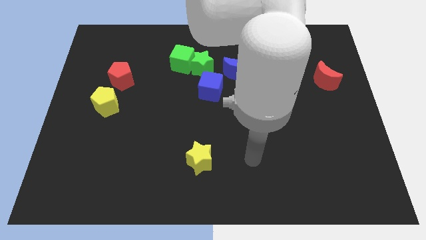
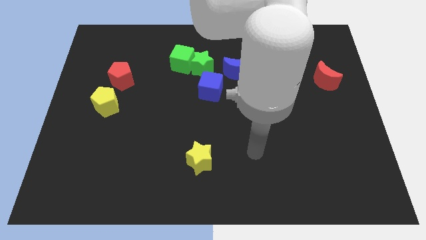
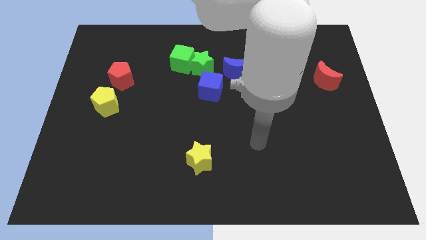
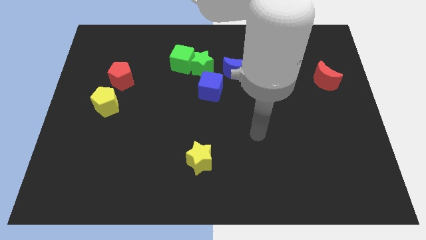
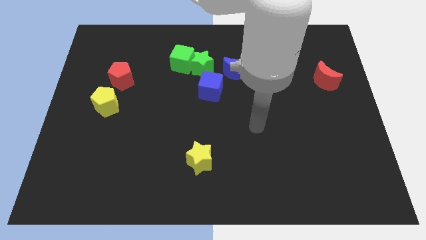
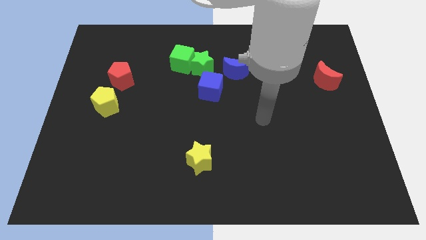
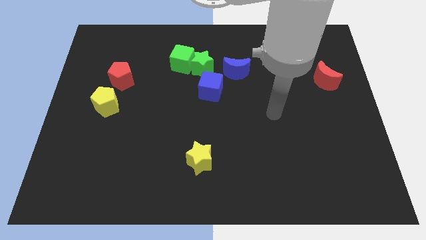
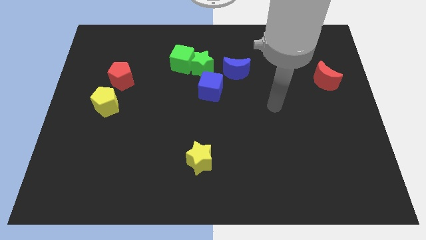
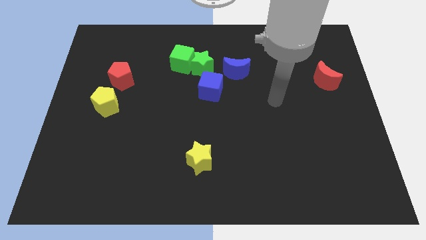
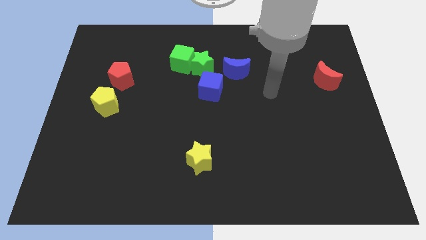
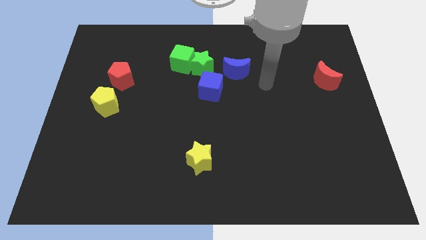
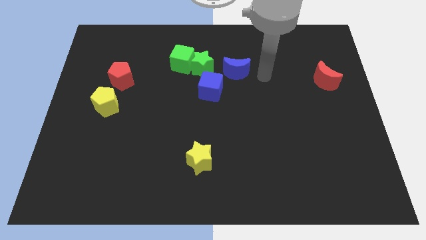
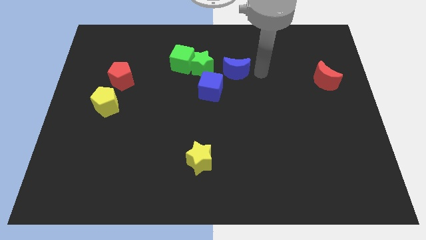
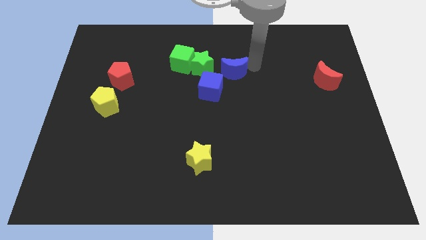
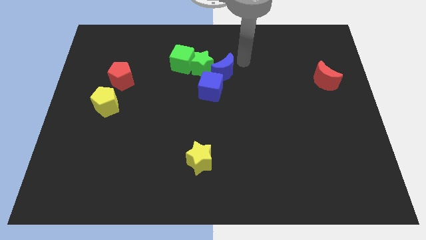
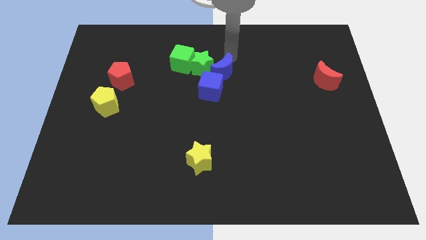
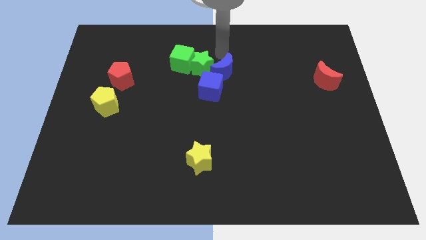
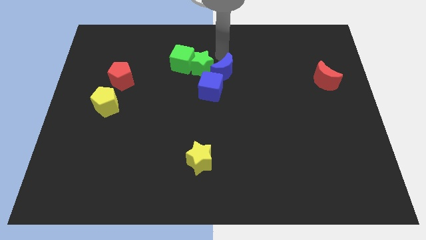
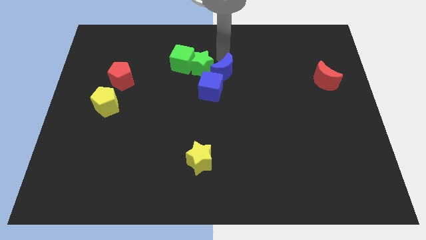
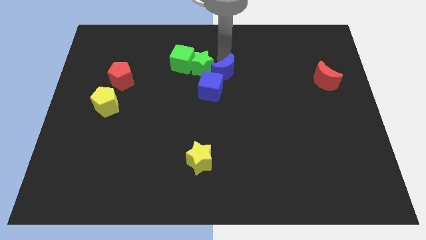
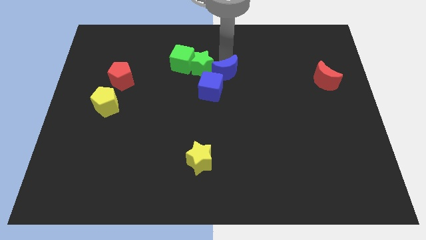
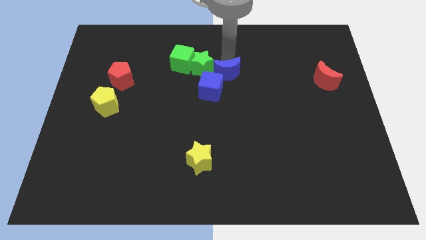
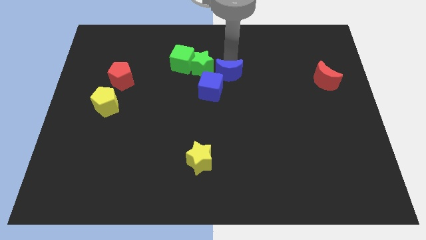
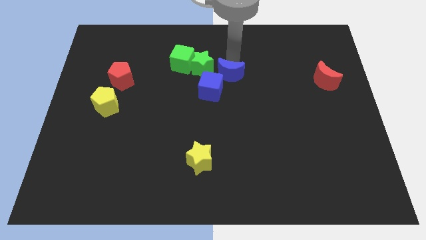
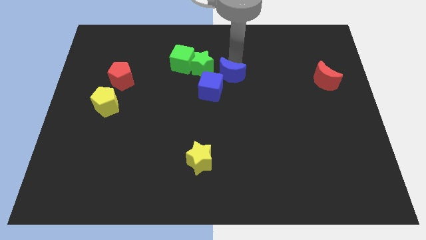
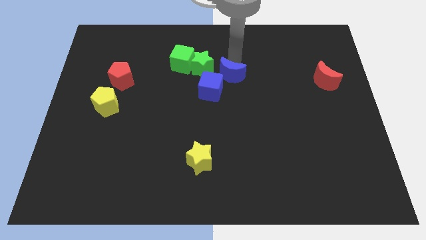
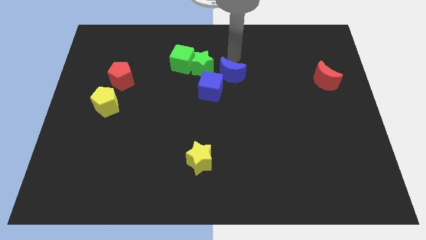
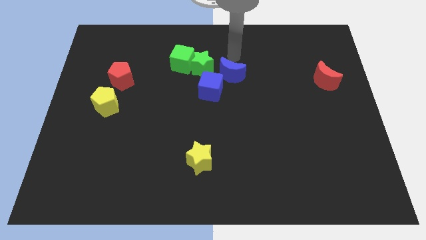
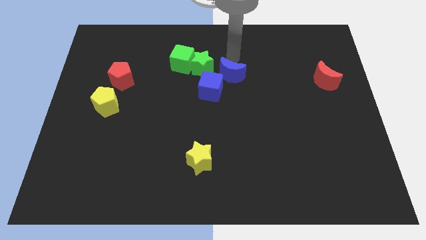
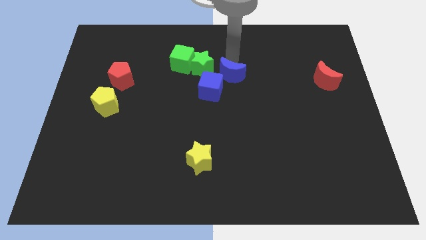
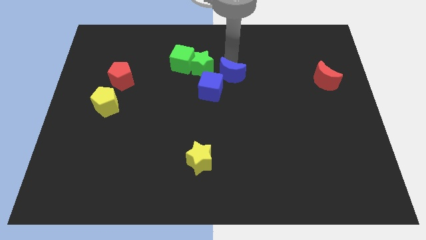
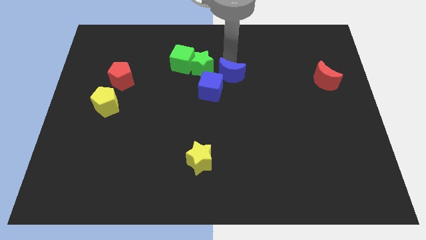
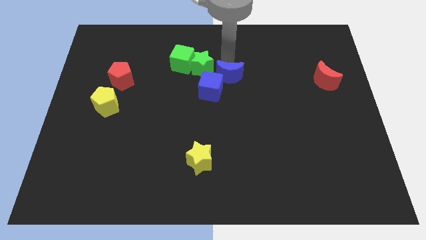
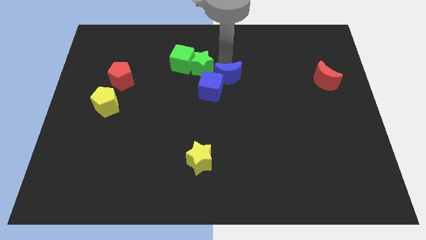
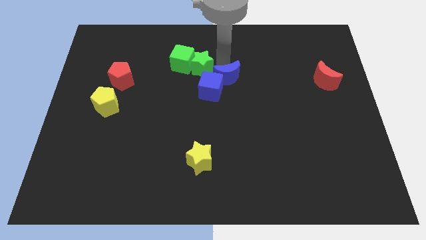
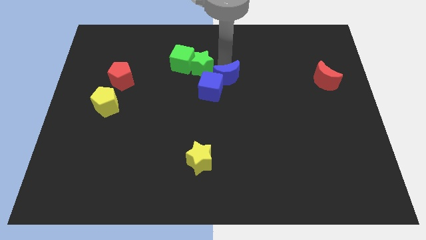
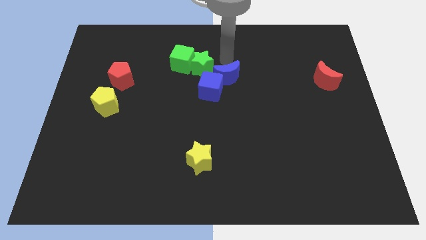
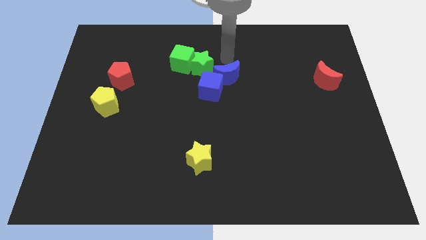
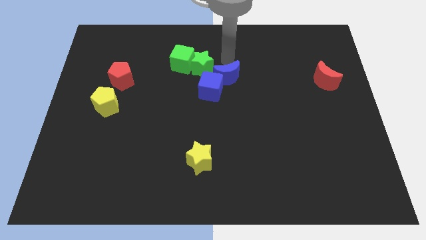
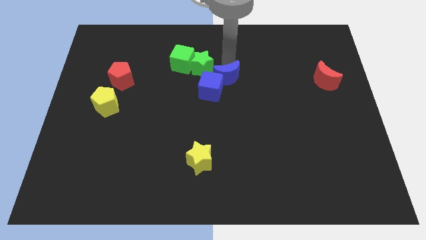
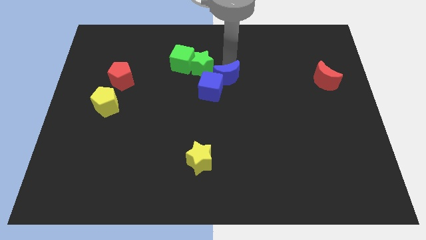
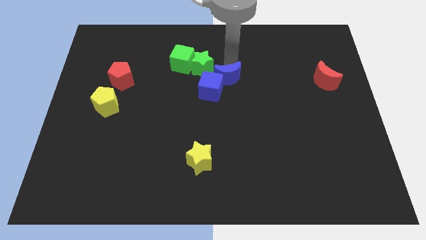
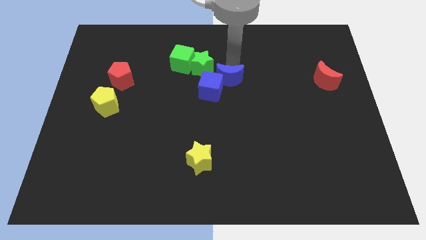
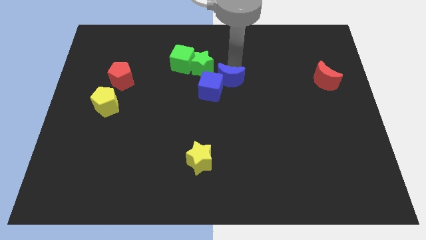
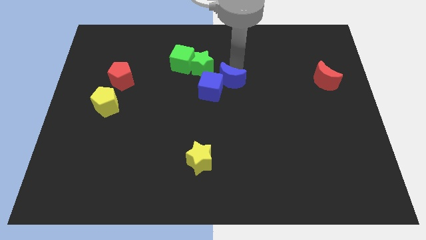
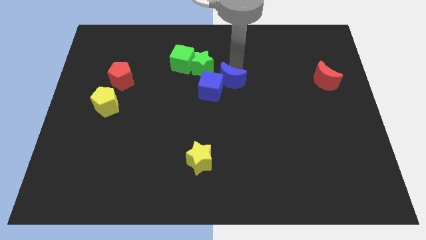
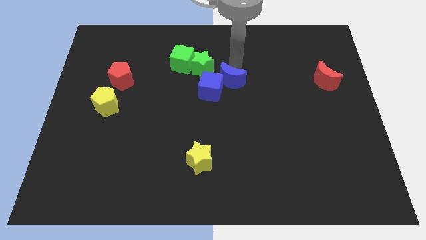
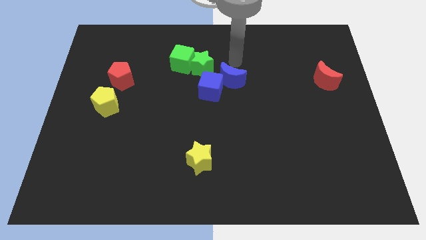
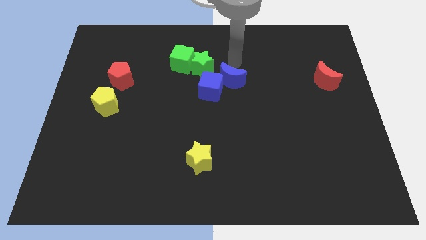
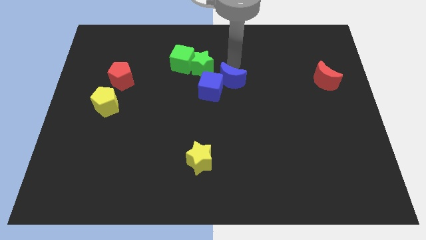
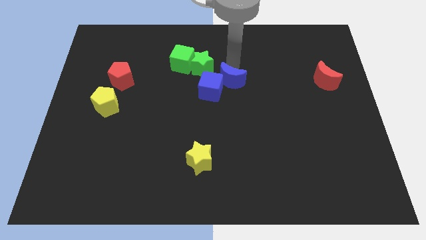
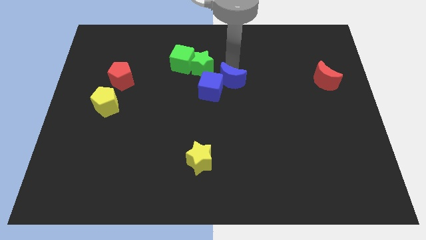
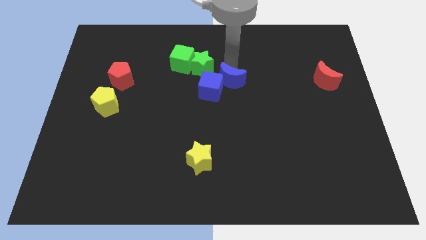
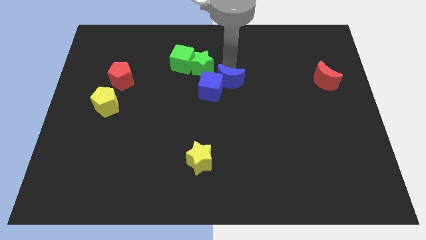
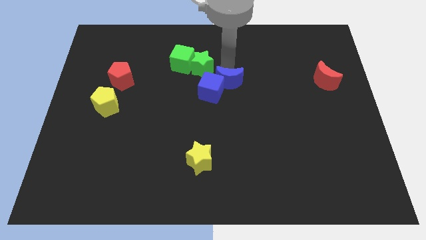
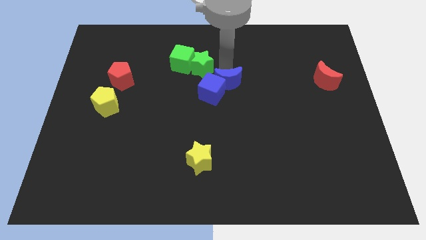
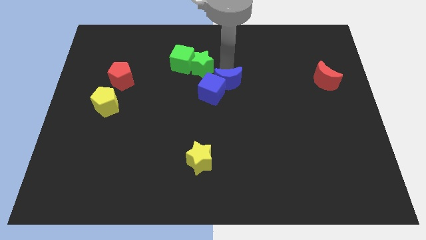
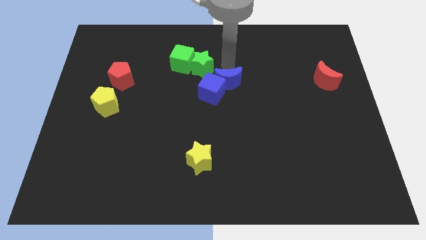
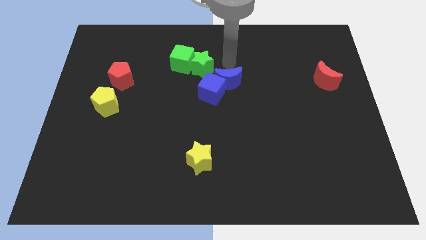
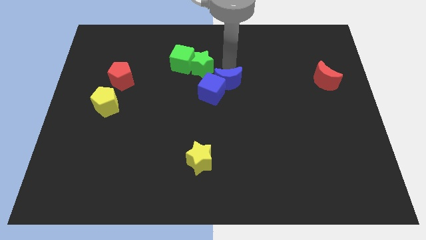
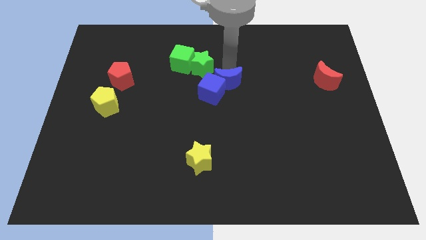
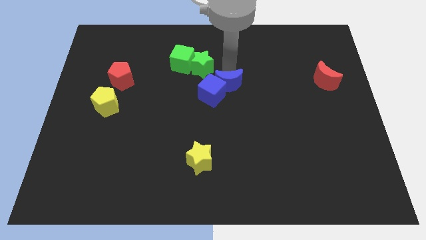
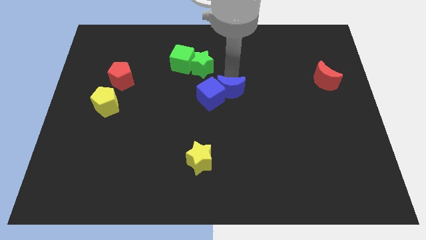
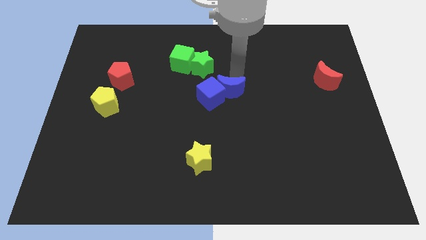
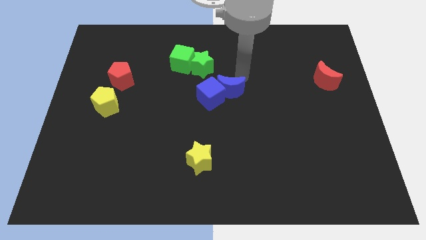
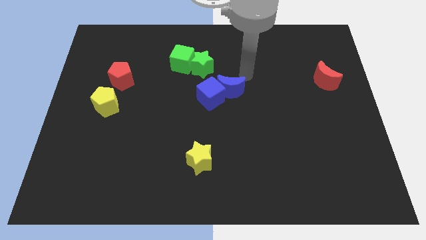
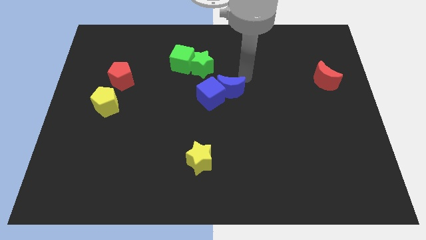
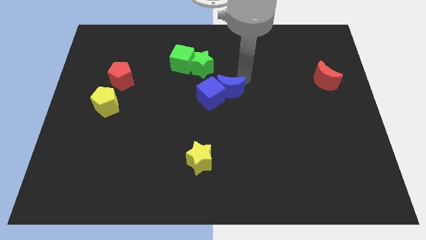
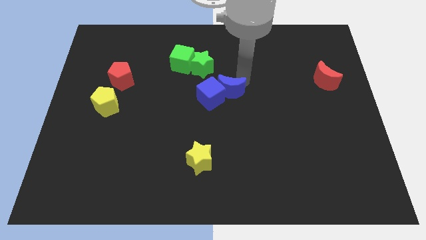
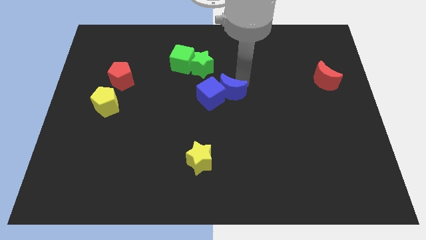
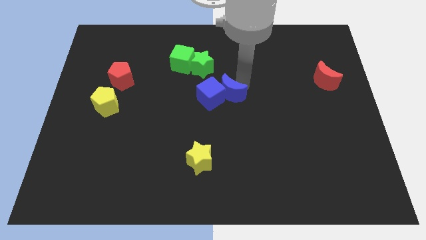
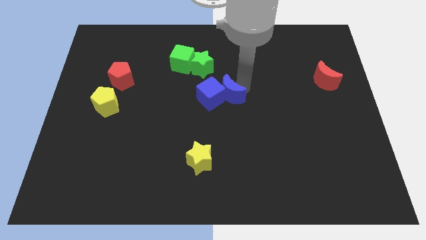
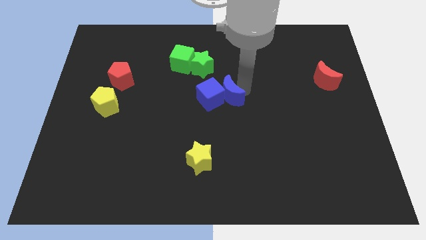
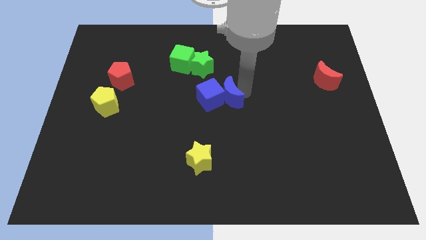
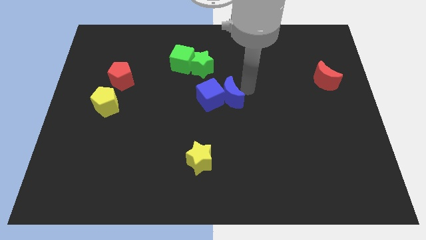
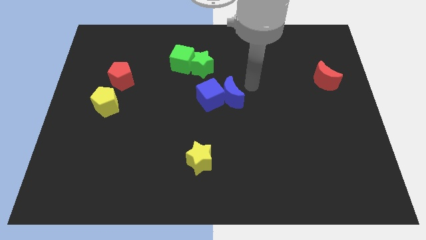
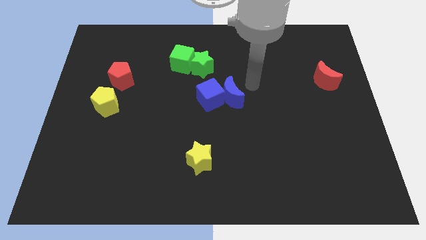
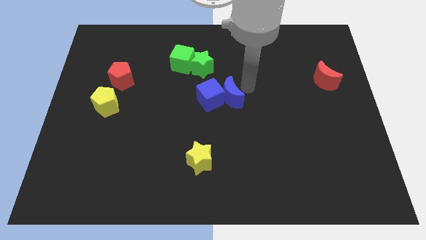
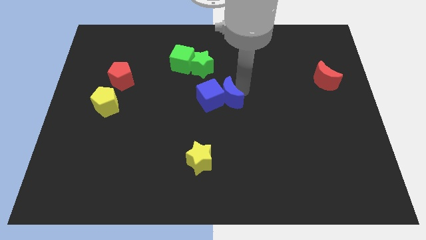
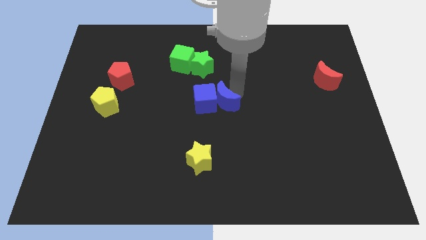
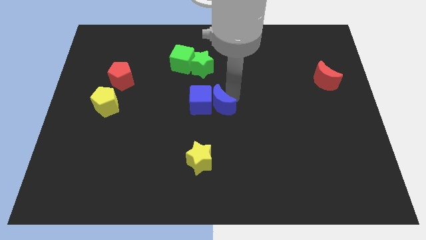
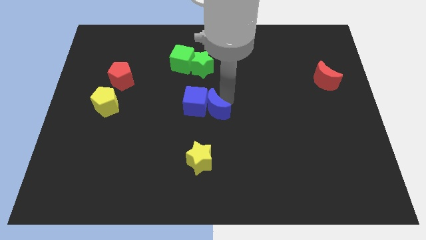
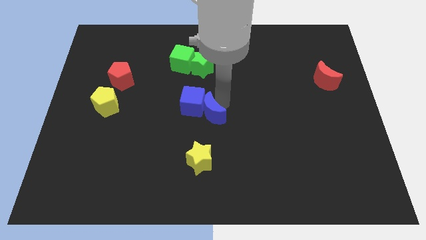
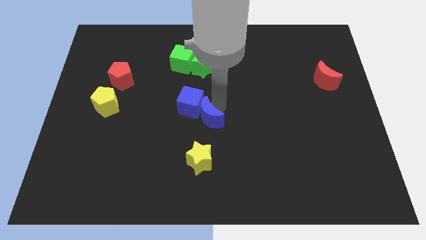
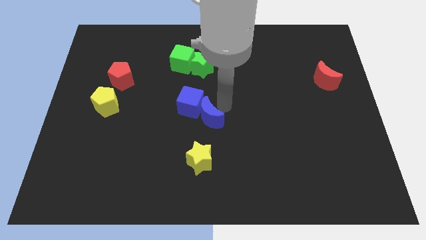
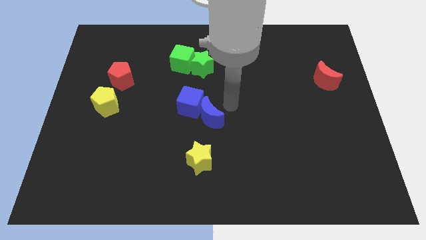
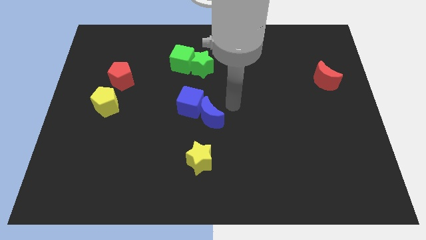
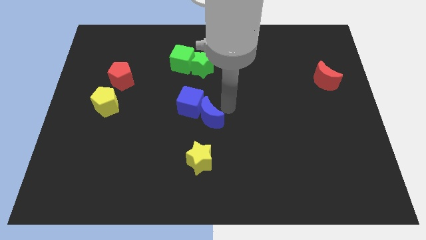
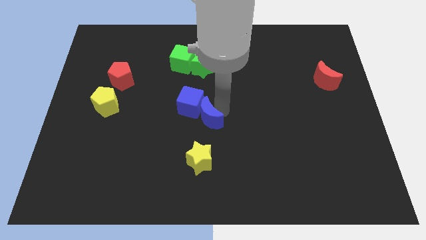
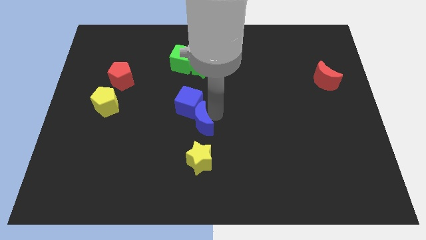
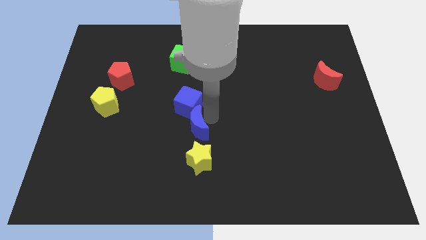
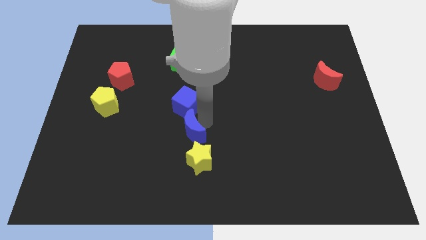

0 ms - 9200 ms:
slide the blue moon to the top left of the yellow star
